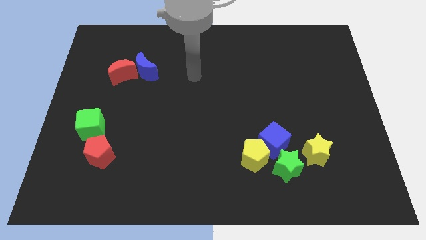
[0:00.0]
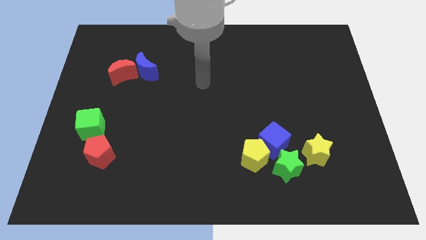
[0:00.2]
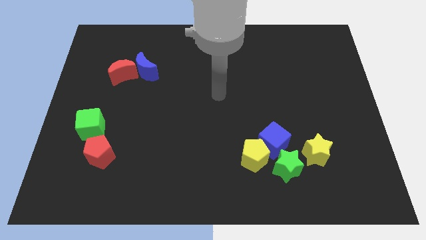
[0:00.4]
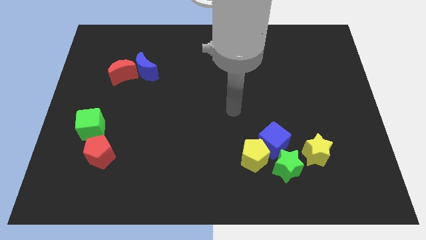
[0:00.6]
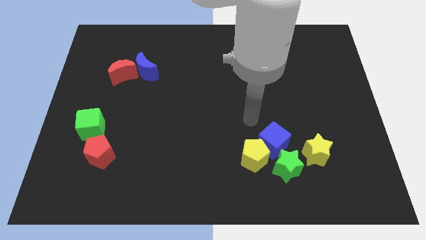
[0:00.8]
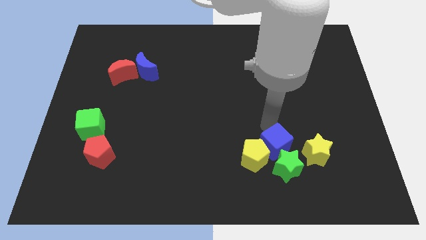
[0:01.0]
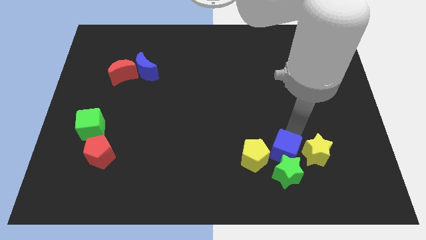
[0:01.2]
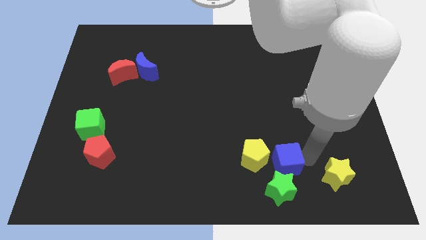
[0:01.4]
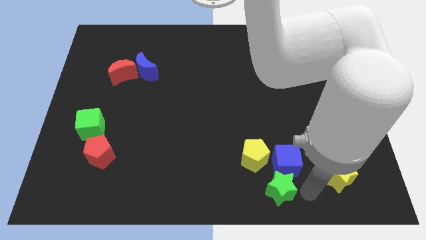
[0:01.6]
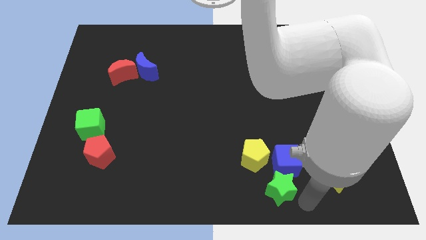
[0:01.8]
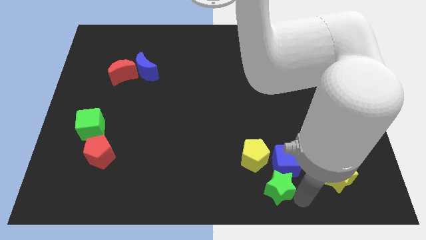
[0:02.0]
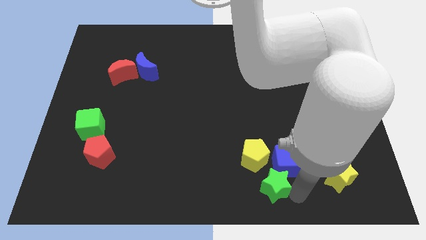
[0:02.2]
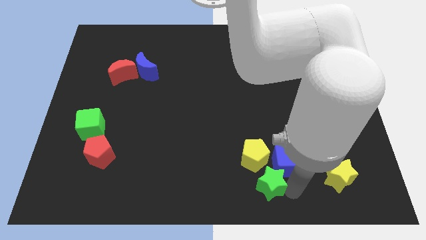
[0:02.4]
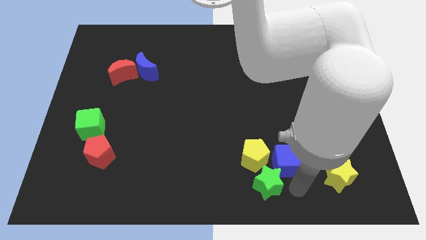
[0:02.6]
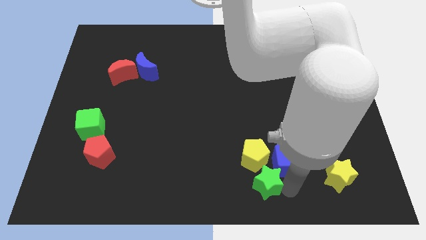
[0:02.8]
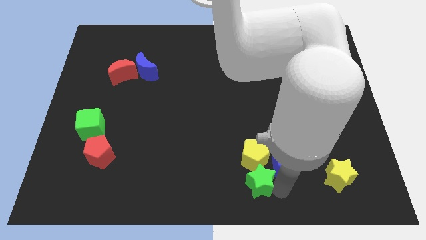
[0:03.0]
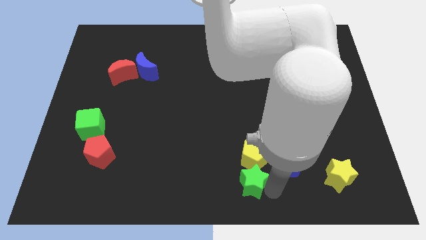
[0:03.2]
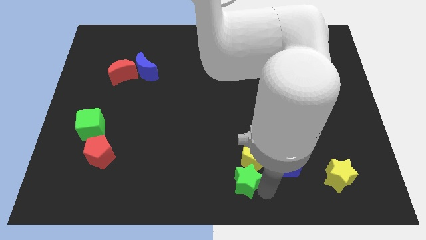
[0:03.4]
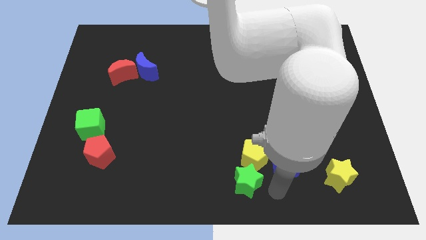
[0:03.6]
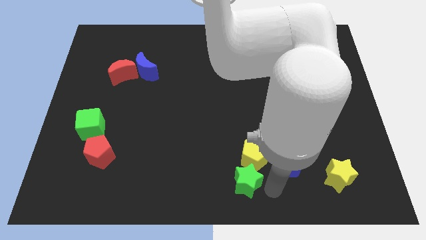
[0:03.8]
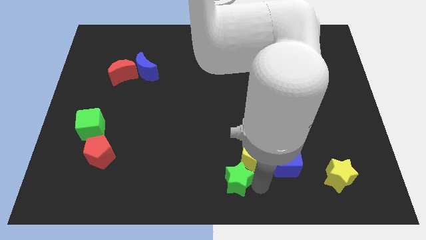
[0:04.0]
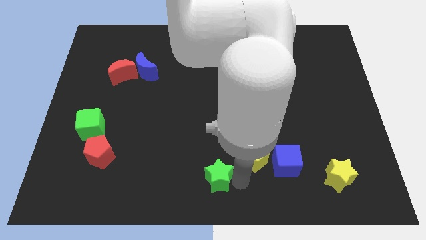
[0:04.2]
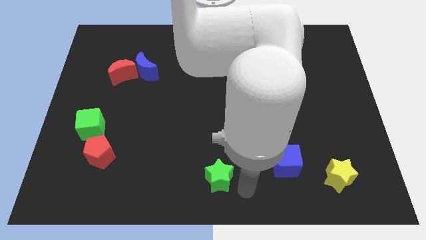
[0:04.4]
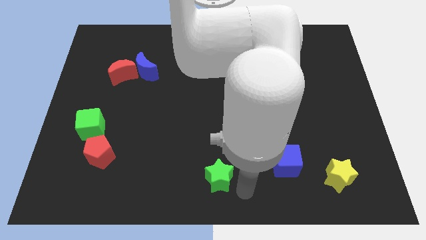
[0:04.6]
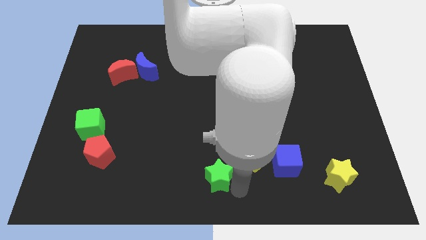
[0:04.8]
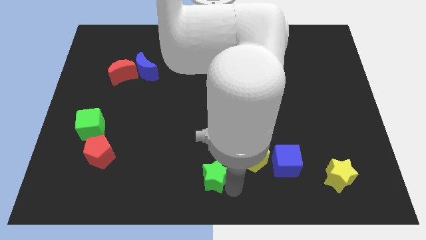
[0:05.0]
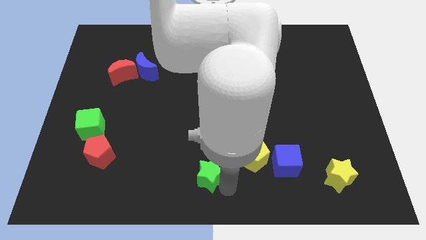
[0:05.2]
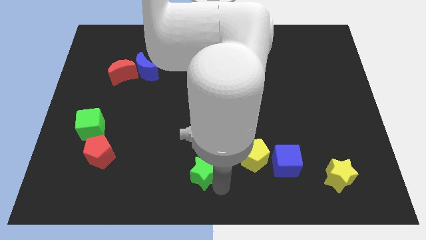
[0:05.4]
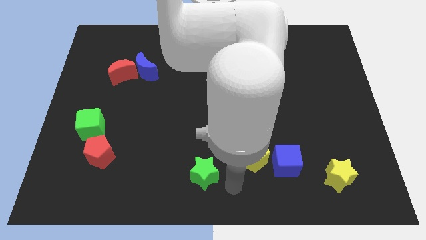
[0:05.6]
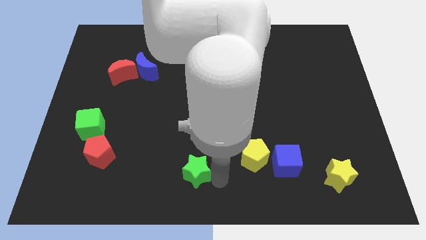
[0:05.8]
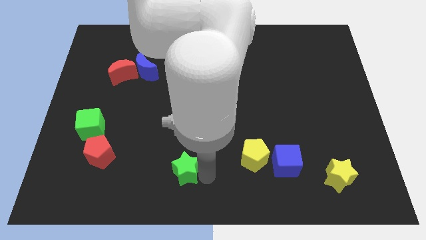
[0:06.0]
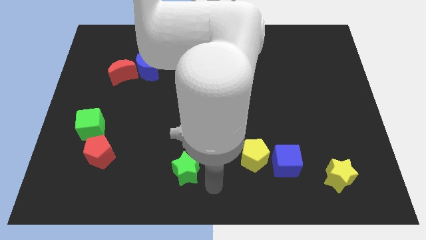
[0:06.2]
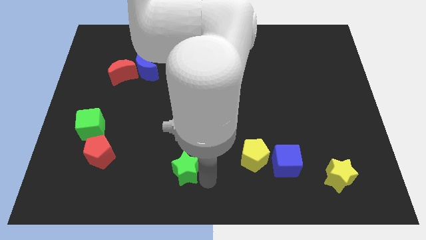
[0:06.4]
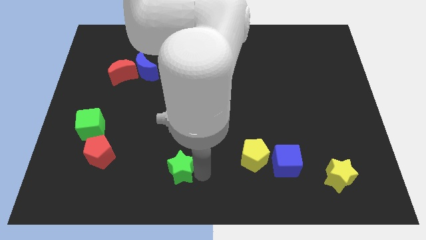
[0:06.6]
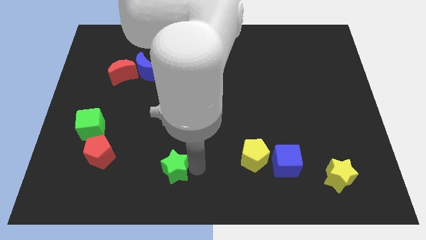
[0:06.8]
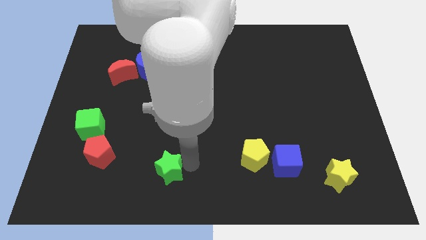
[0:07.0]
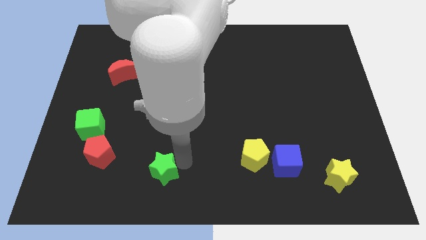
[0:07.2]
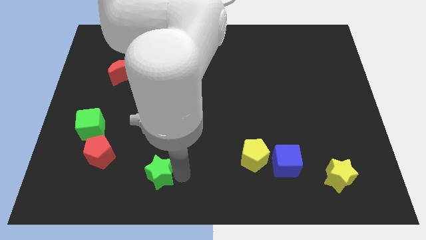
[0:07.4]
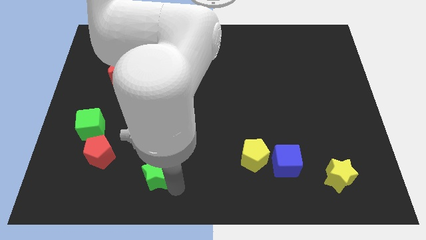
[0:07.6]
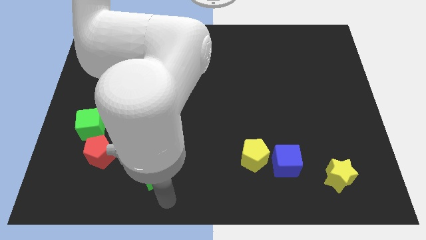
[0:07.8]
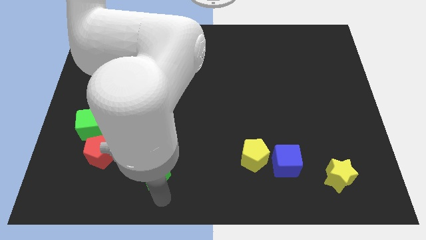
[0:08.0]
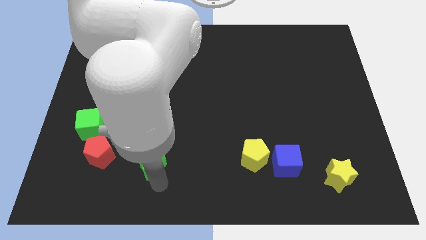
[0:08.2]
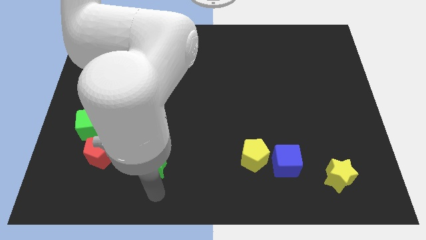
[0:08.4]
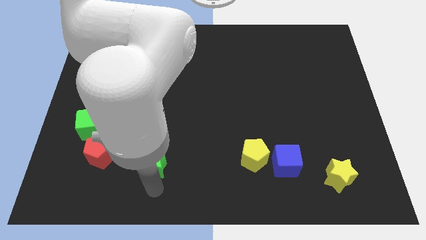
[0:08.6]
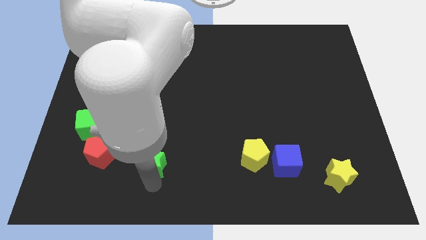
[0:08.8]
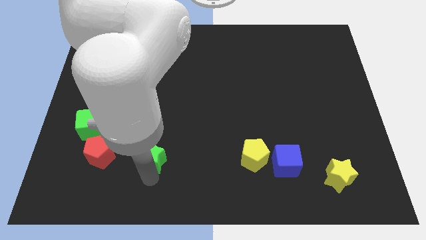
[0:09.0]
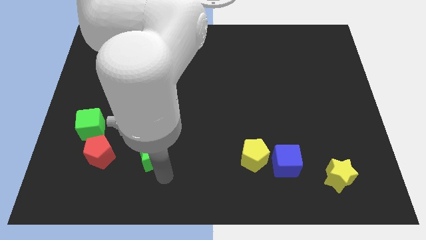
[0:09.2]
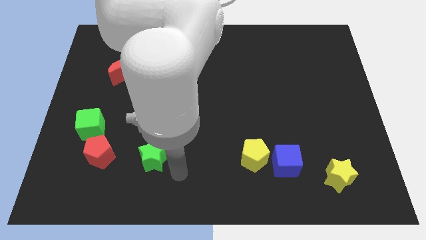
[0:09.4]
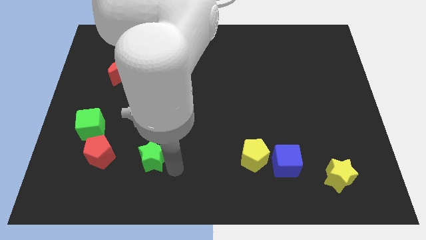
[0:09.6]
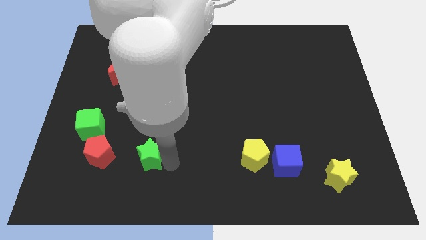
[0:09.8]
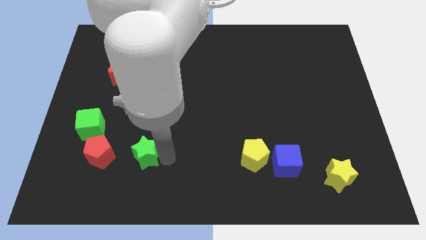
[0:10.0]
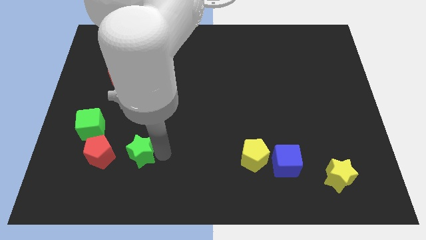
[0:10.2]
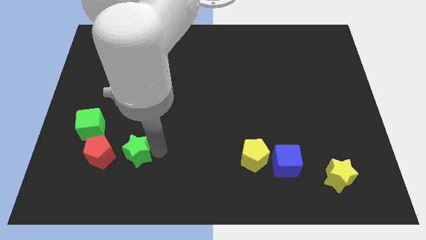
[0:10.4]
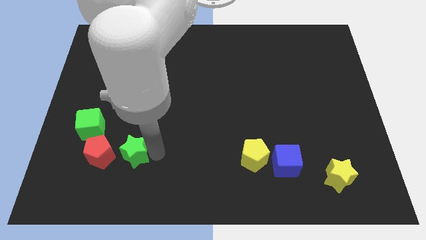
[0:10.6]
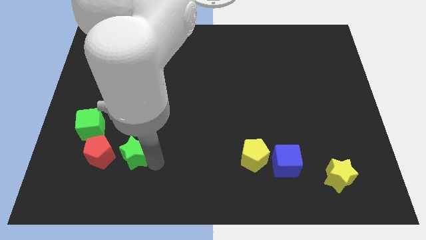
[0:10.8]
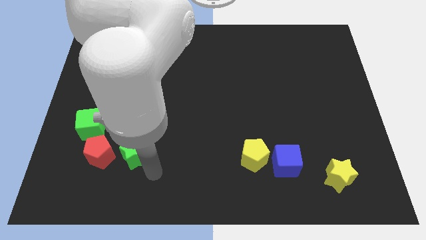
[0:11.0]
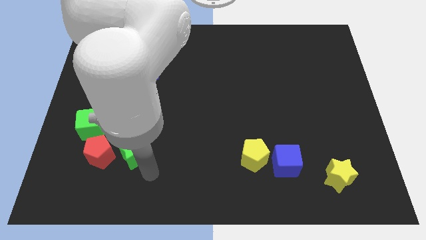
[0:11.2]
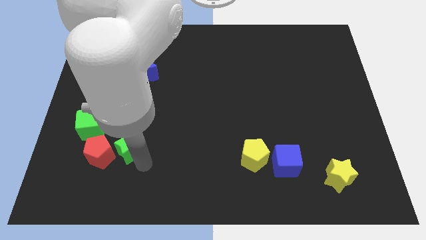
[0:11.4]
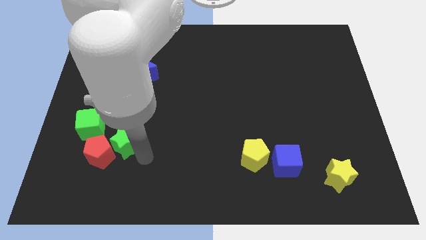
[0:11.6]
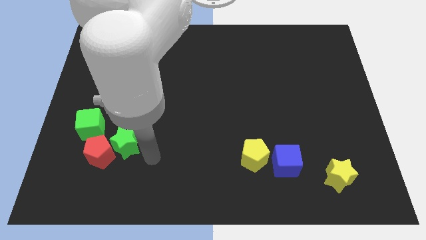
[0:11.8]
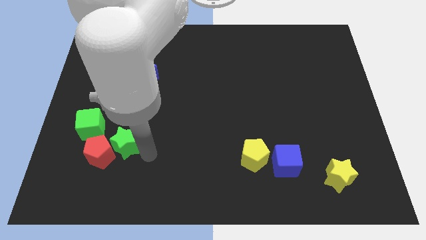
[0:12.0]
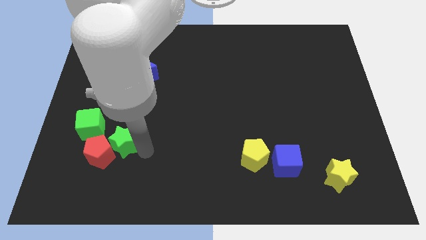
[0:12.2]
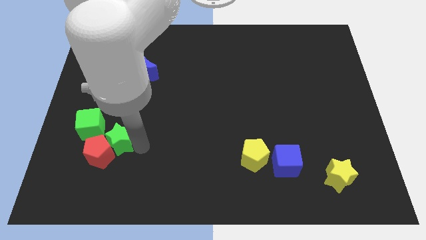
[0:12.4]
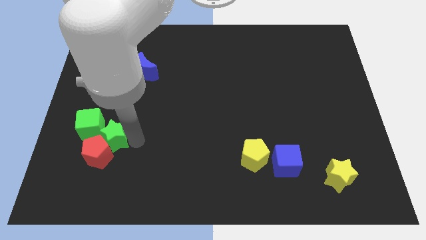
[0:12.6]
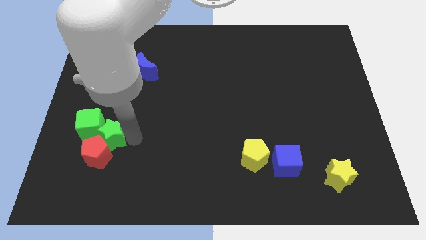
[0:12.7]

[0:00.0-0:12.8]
push the green star close to the green cube

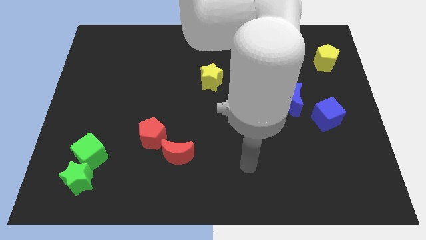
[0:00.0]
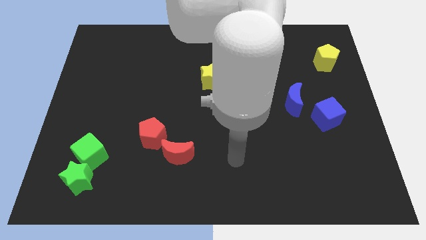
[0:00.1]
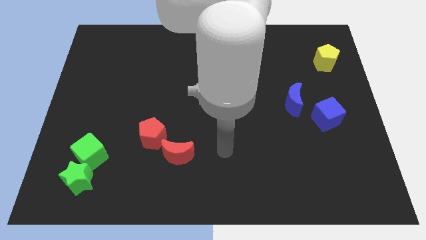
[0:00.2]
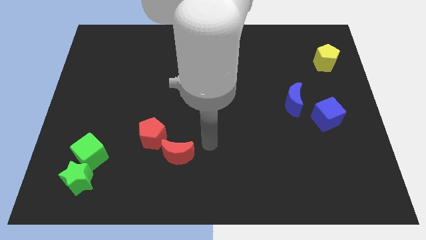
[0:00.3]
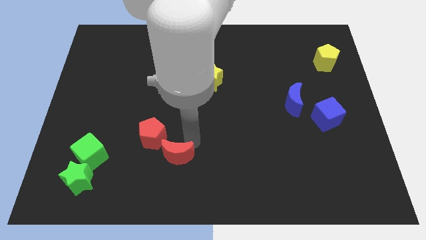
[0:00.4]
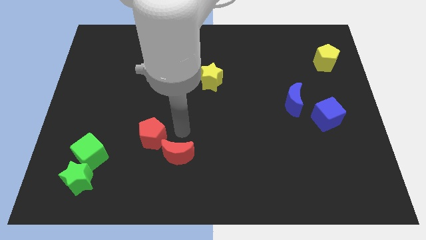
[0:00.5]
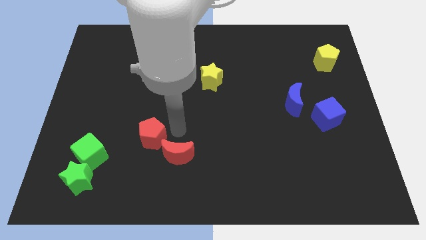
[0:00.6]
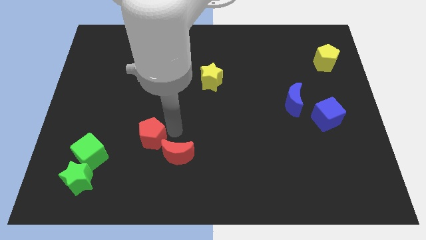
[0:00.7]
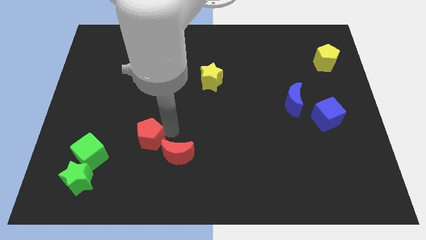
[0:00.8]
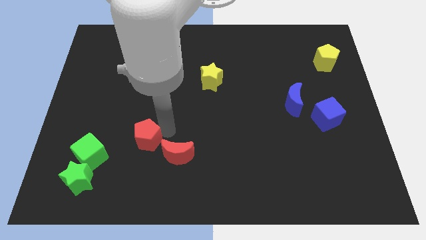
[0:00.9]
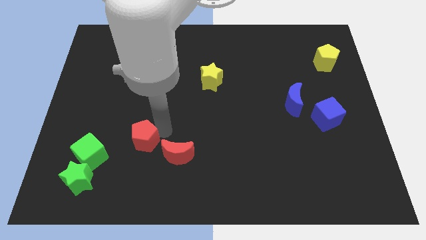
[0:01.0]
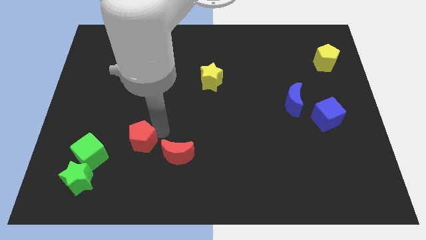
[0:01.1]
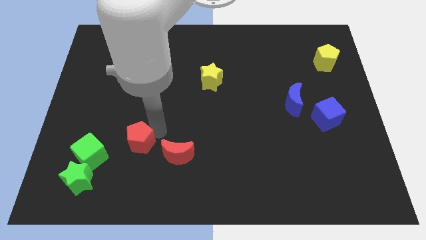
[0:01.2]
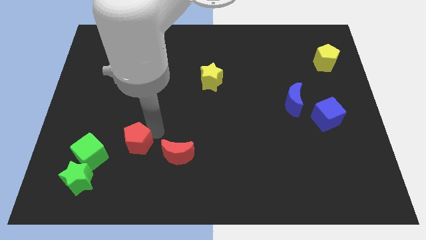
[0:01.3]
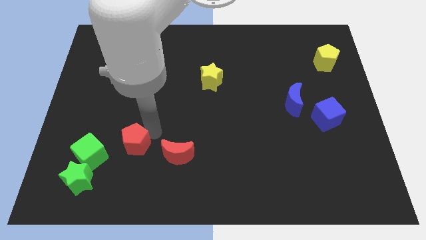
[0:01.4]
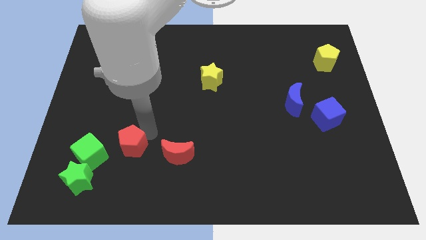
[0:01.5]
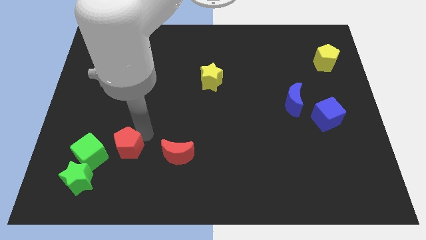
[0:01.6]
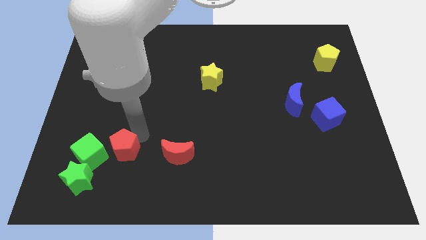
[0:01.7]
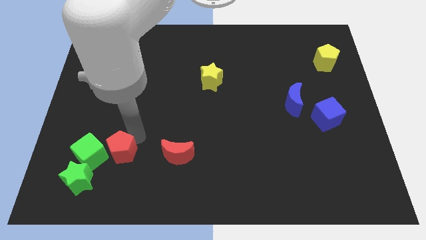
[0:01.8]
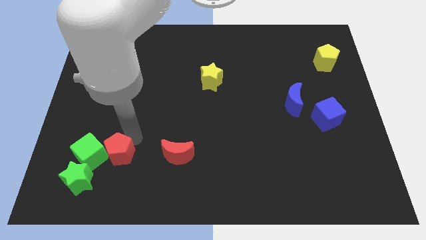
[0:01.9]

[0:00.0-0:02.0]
put the red pentagon next to the green cube
